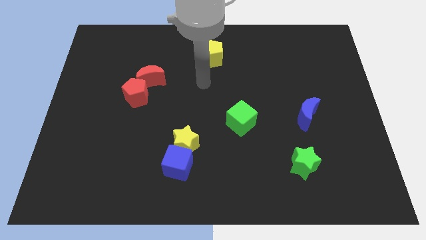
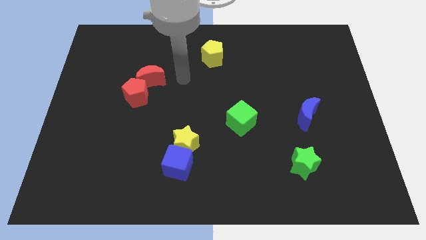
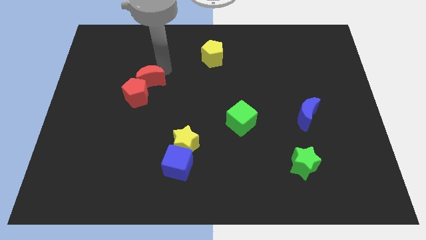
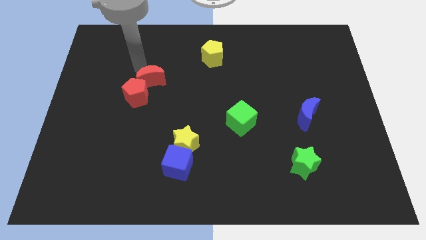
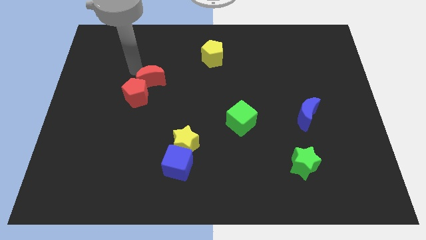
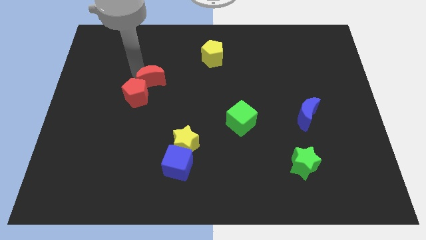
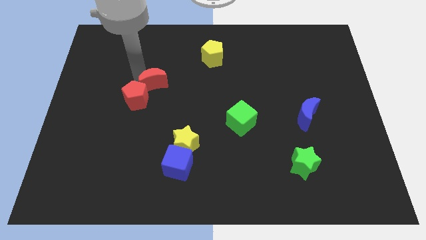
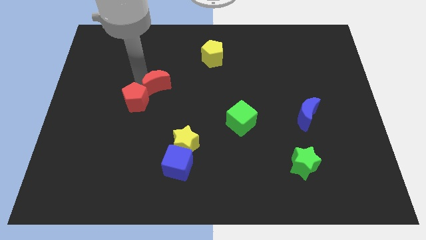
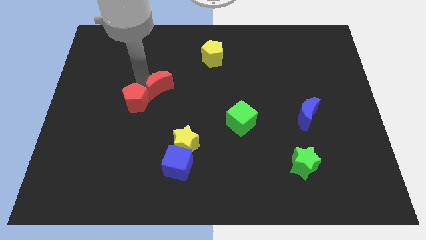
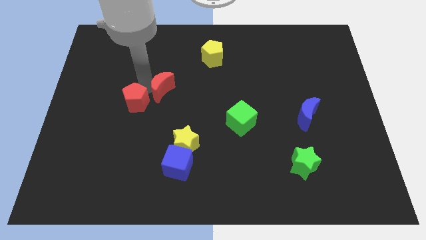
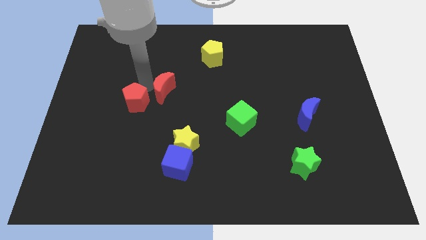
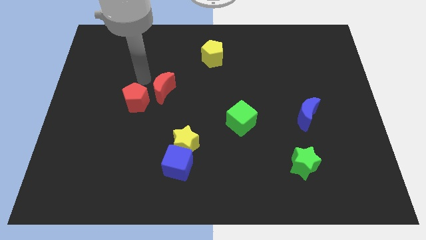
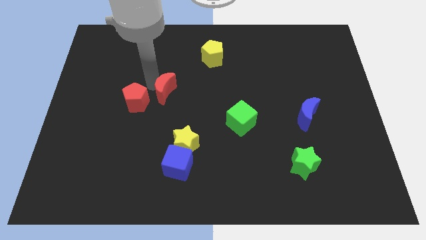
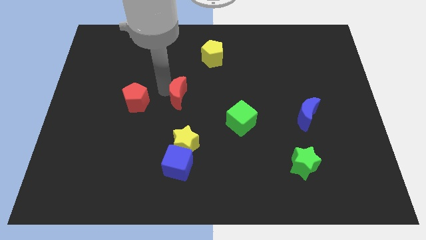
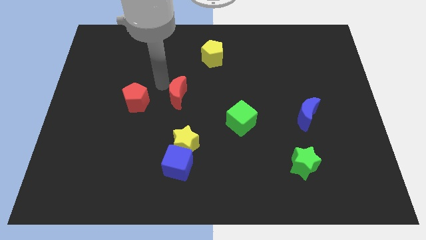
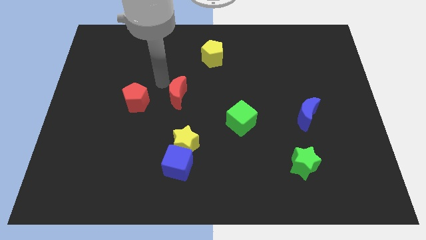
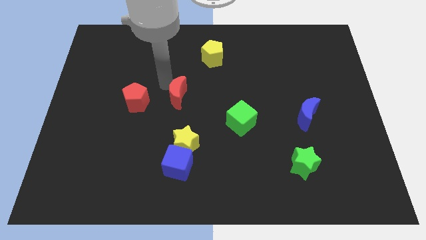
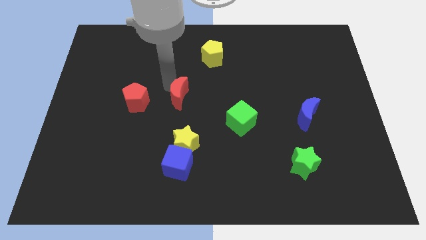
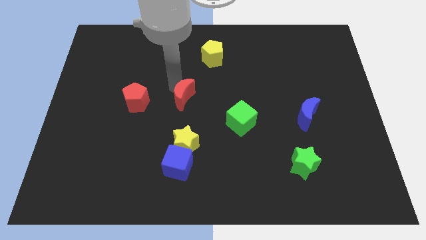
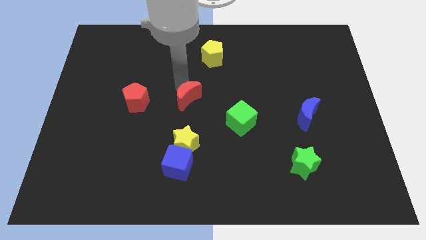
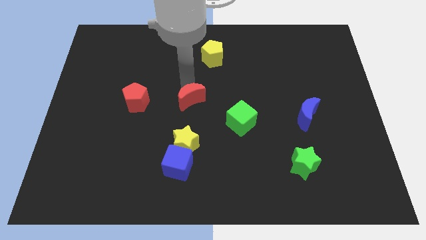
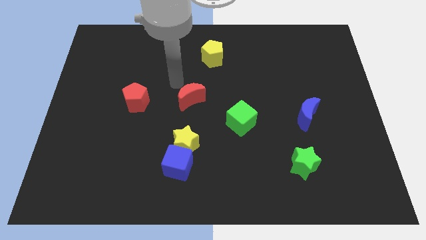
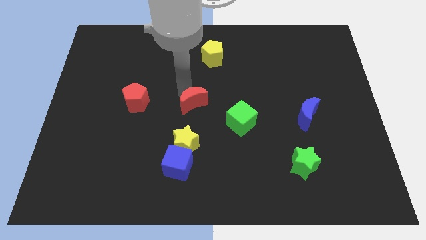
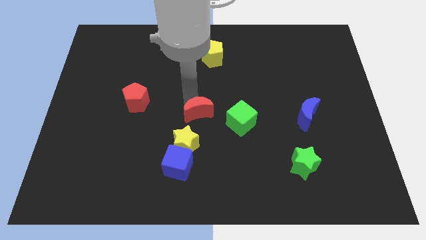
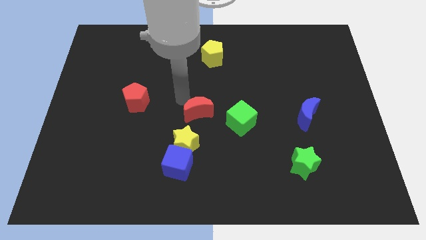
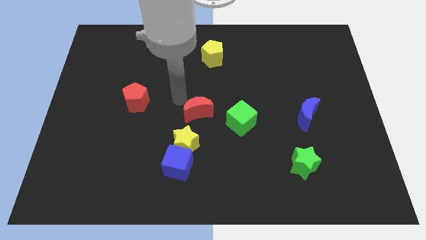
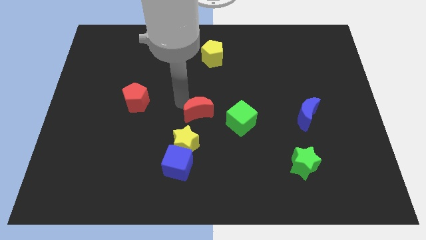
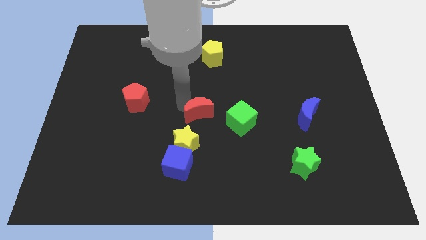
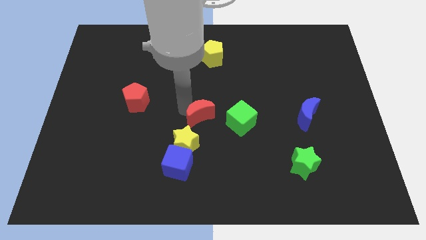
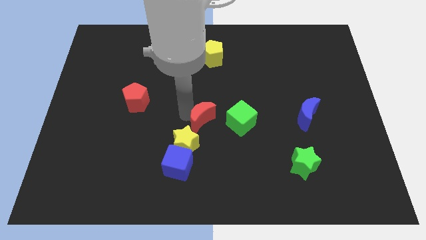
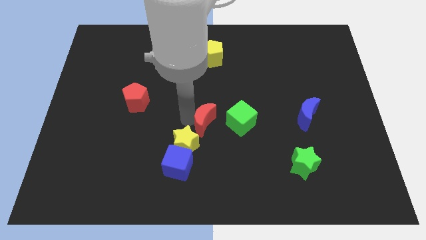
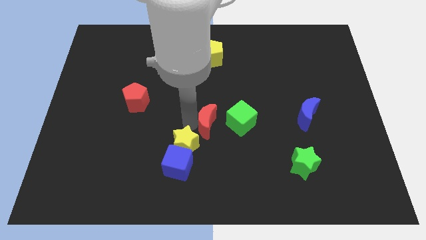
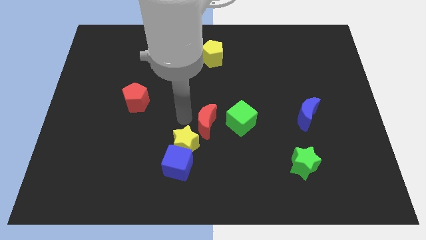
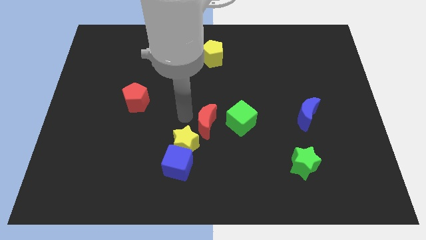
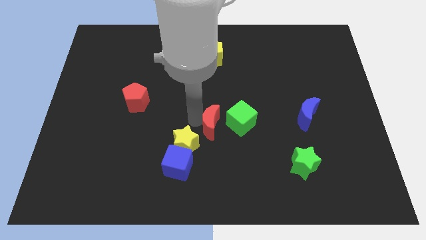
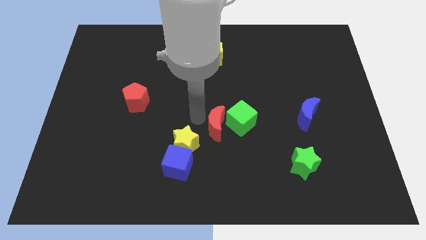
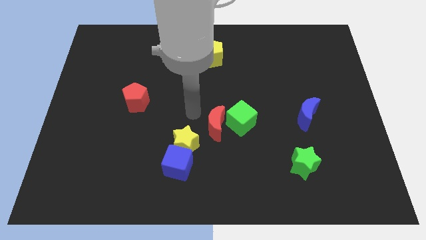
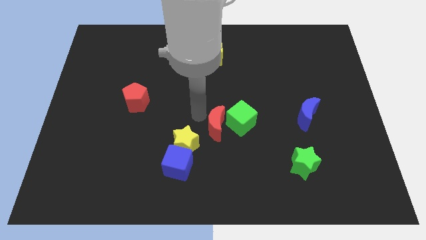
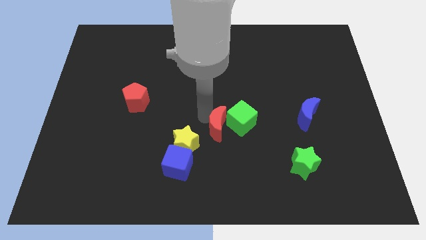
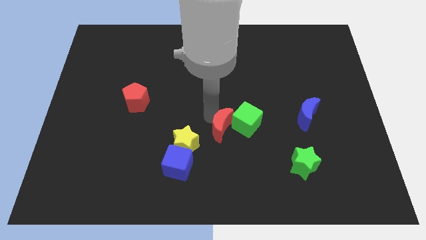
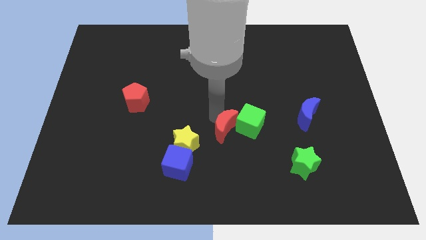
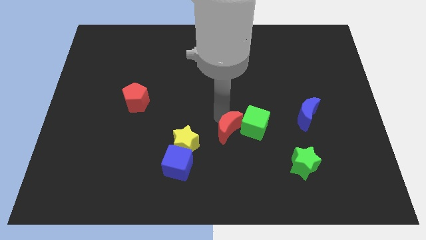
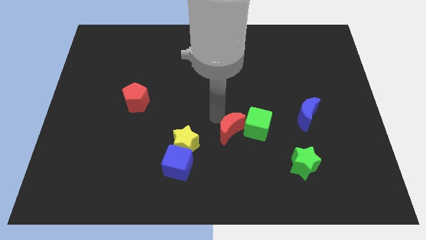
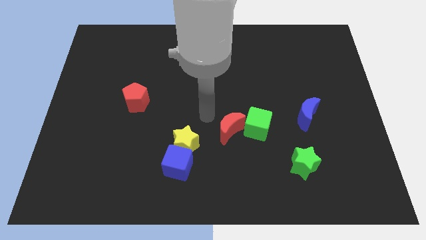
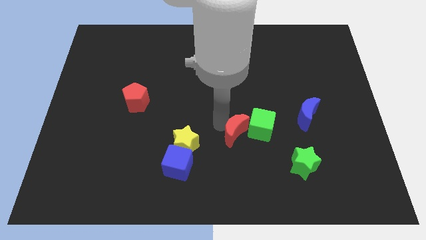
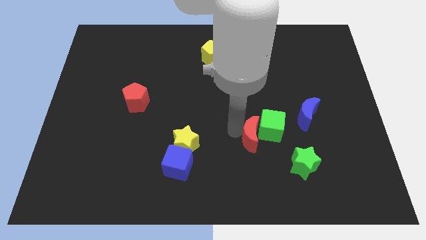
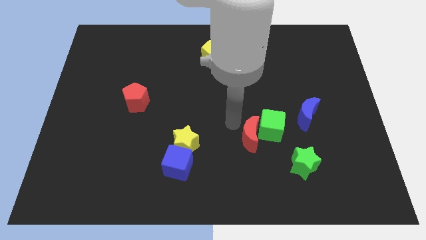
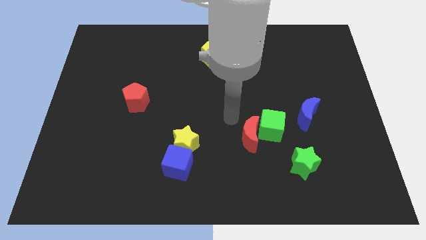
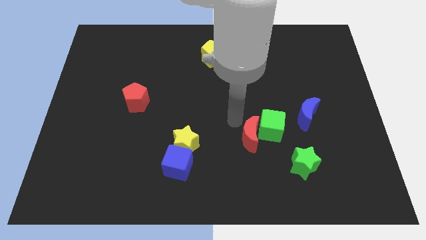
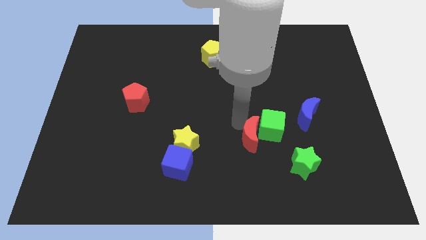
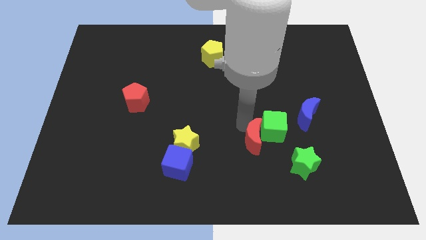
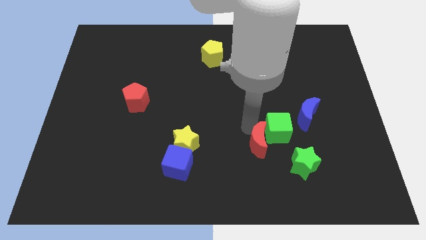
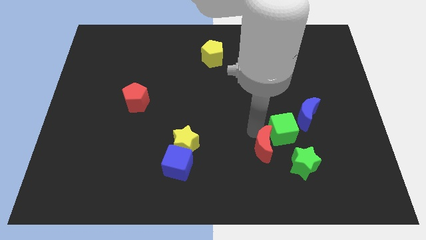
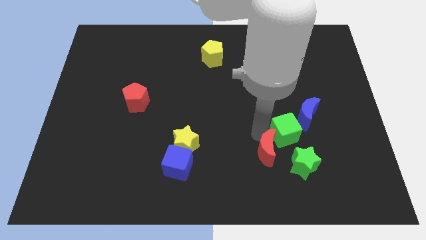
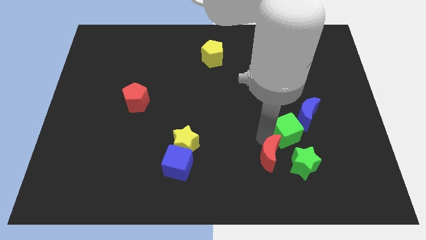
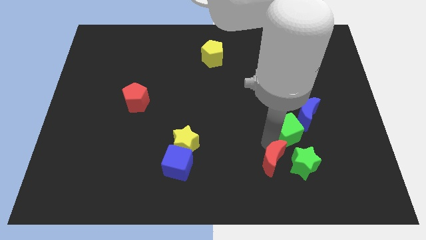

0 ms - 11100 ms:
push the red moon close to the green star

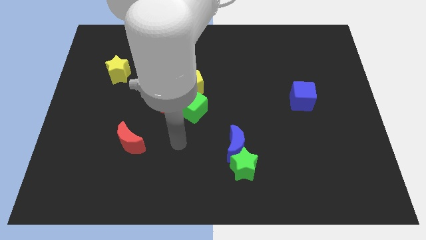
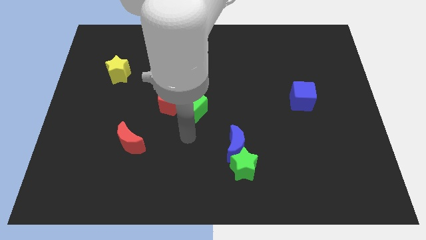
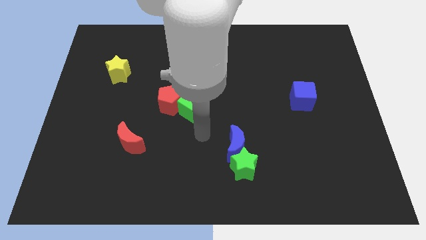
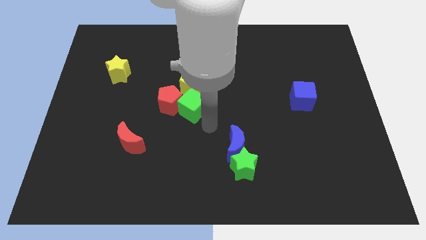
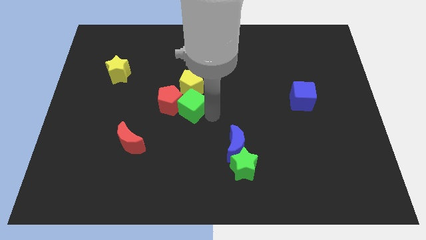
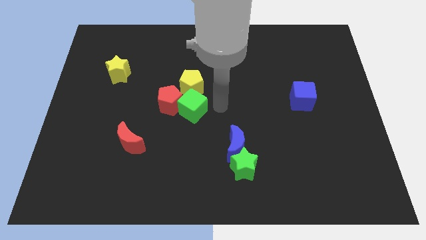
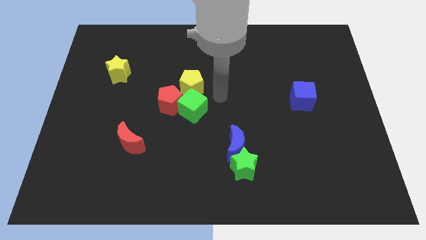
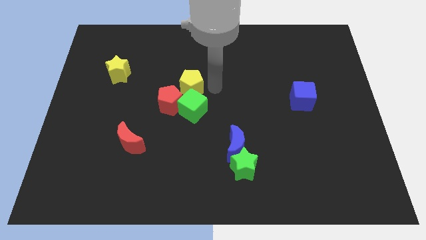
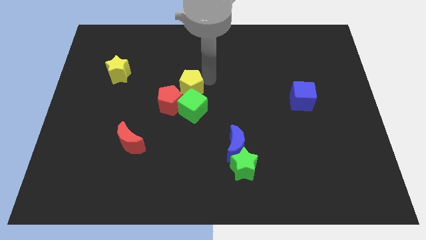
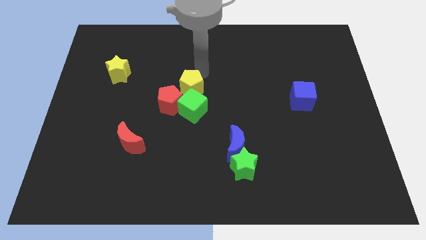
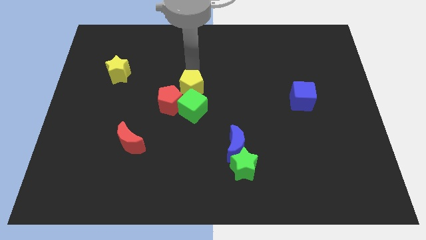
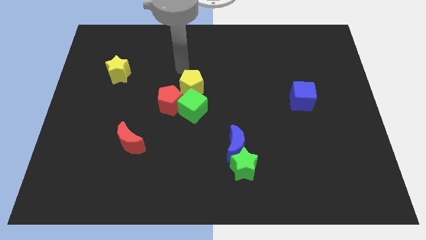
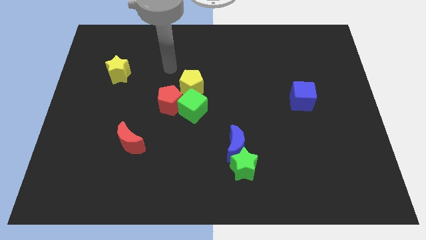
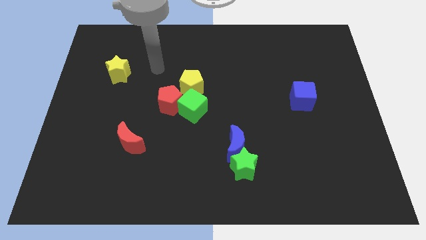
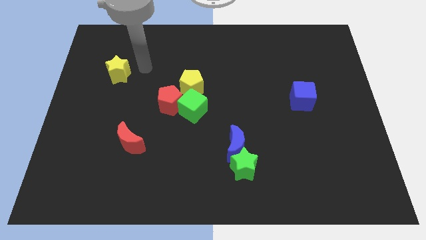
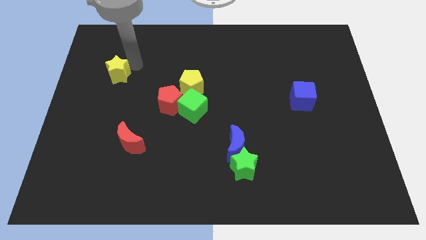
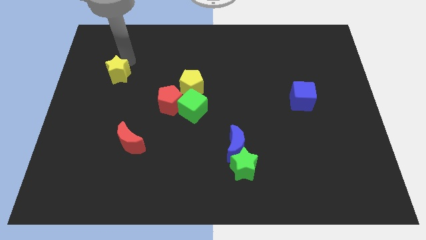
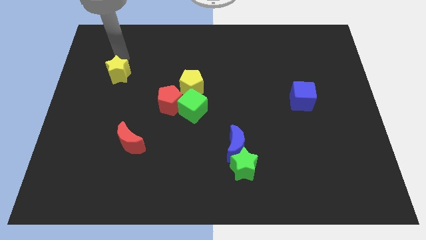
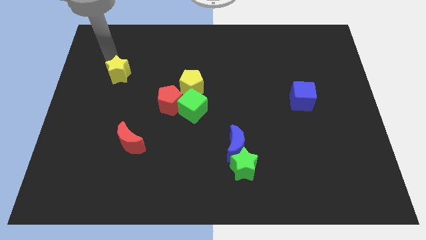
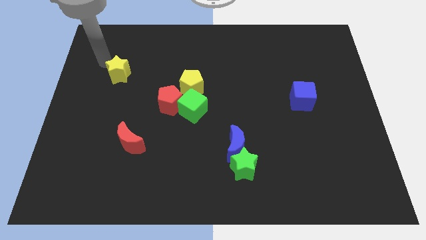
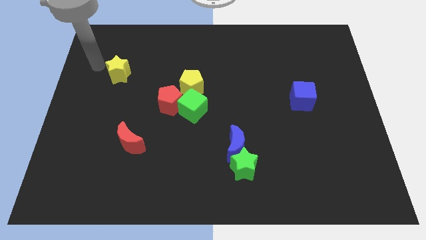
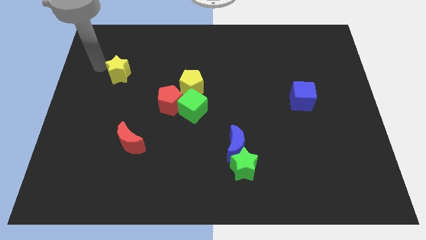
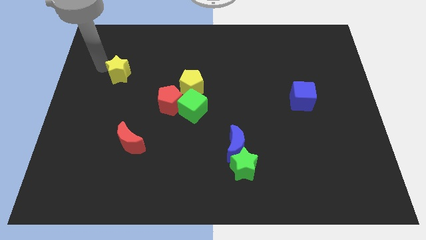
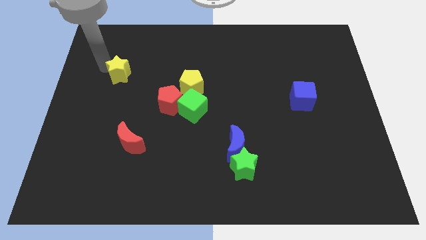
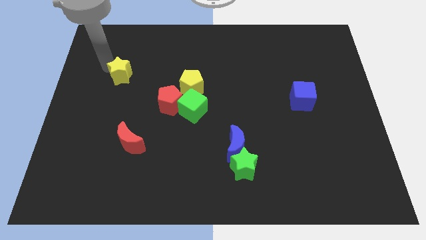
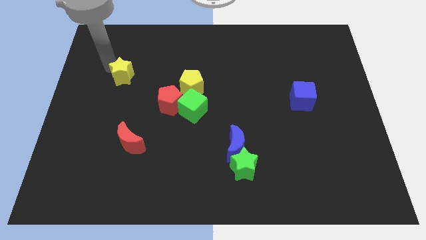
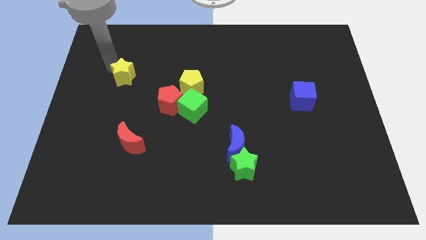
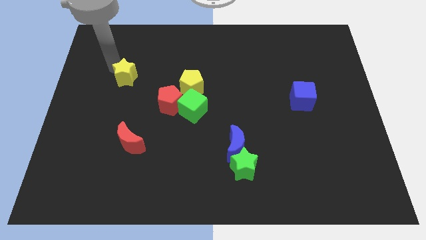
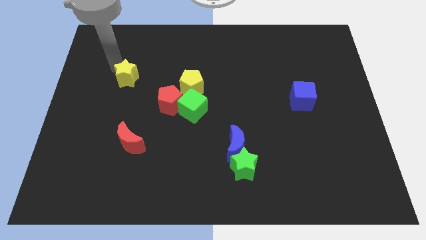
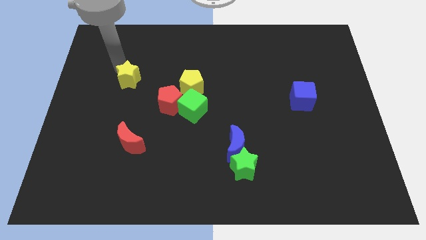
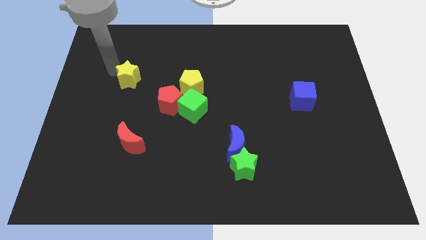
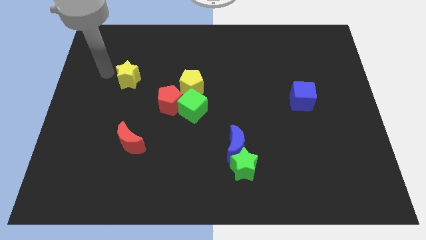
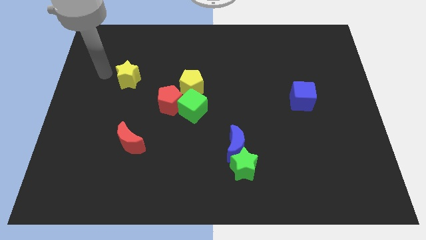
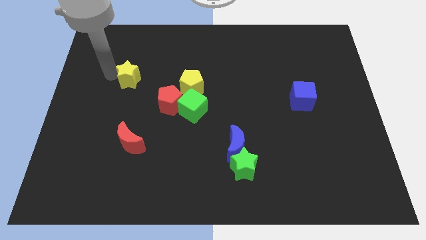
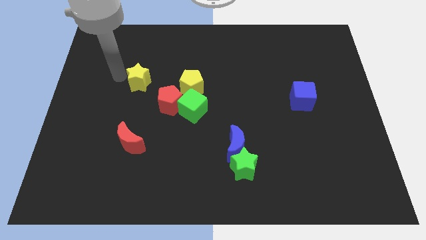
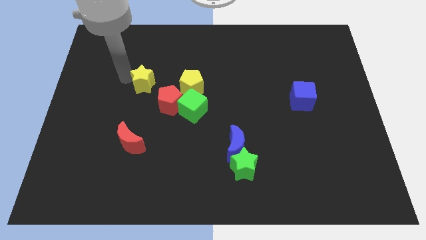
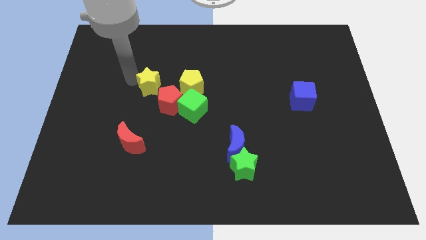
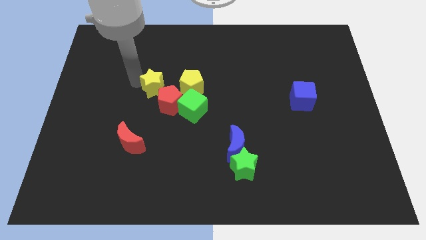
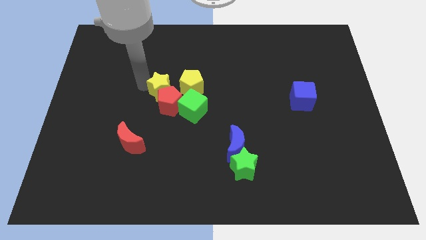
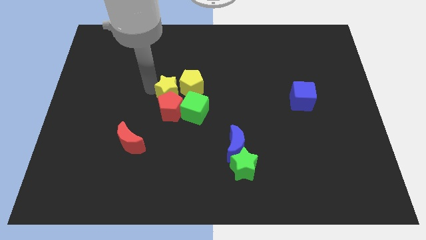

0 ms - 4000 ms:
move the yellow star towards the yellow pentagon
